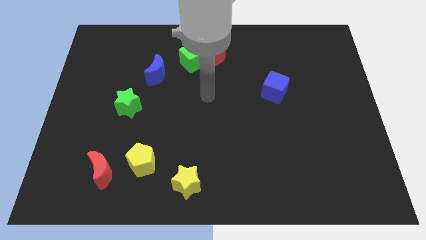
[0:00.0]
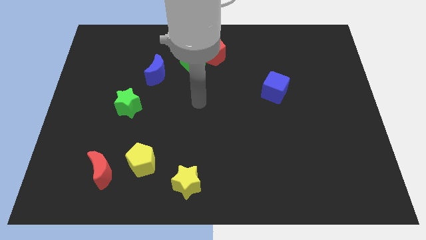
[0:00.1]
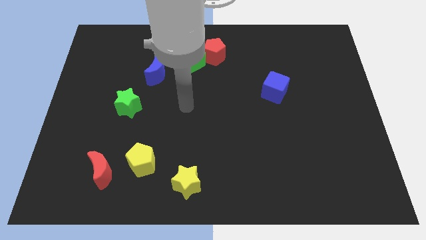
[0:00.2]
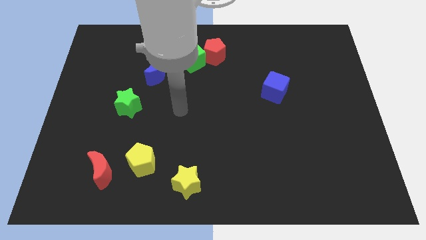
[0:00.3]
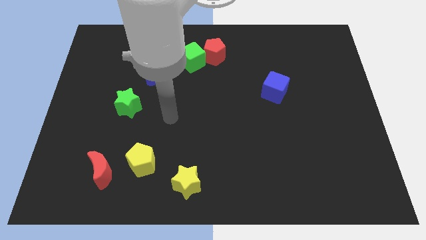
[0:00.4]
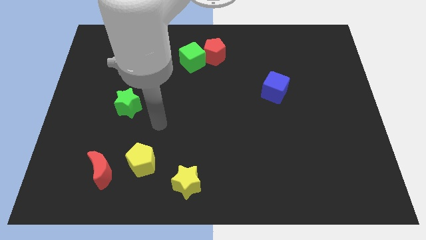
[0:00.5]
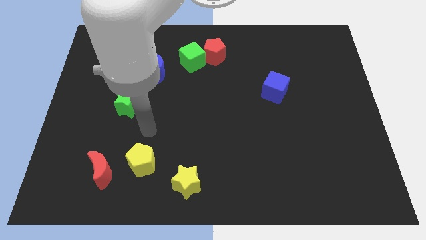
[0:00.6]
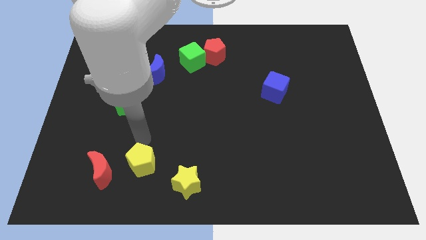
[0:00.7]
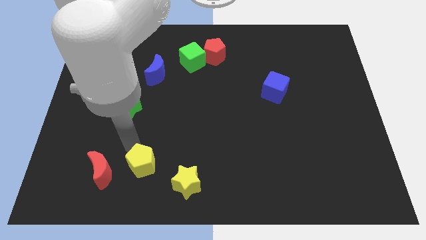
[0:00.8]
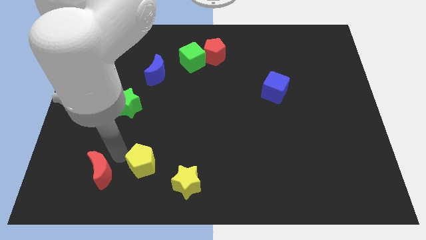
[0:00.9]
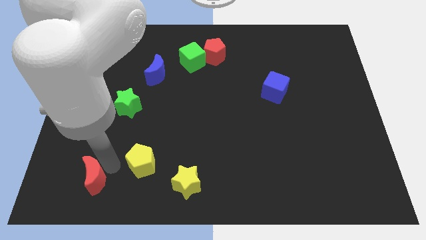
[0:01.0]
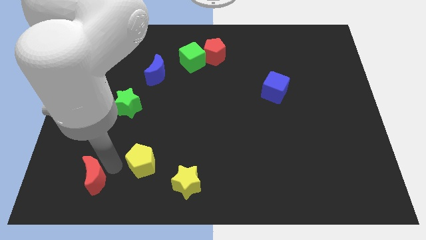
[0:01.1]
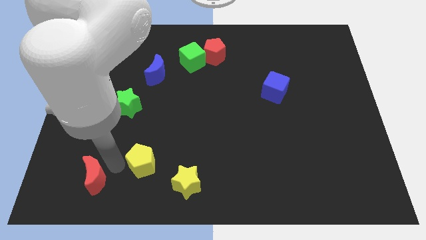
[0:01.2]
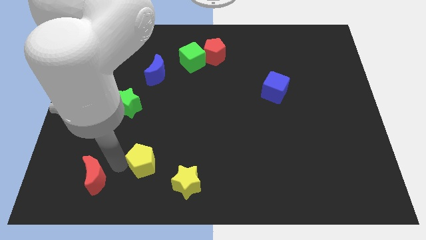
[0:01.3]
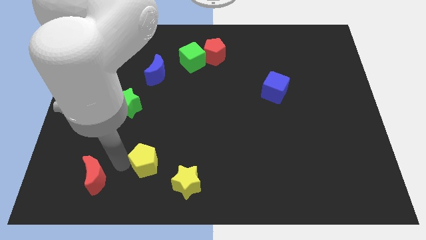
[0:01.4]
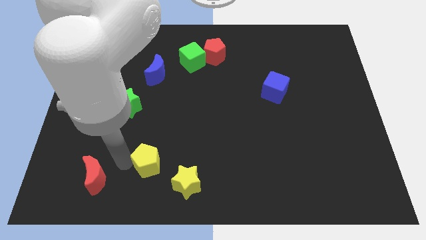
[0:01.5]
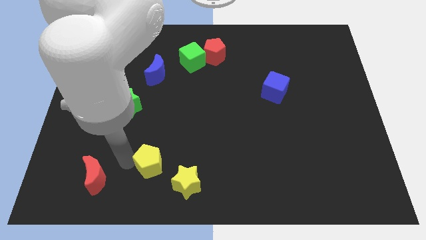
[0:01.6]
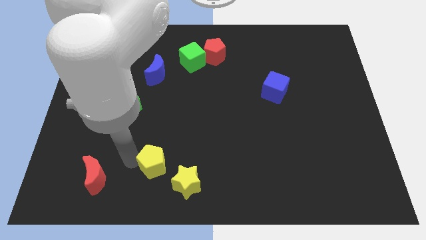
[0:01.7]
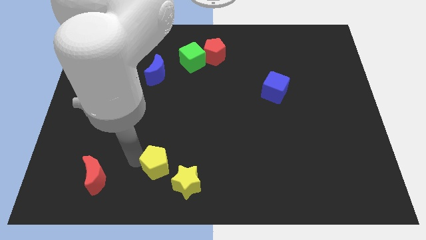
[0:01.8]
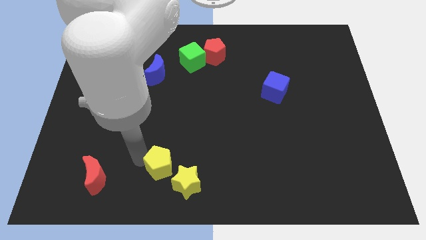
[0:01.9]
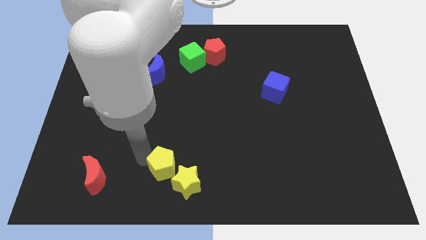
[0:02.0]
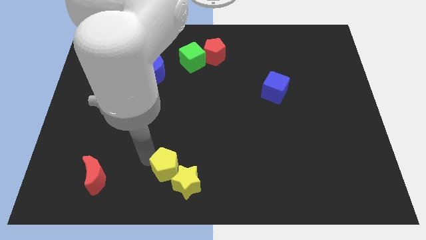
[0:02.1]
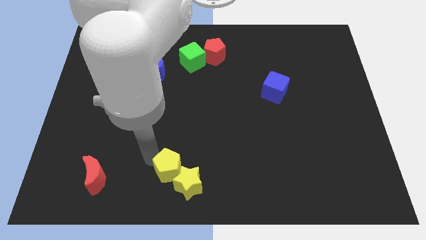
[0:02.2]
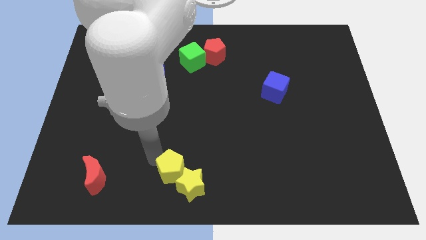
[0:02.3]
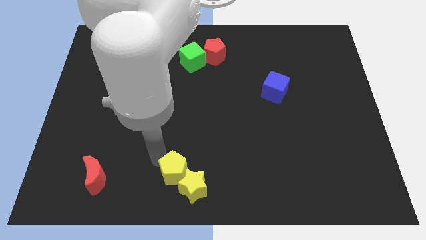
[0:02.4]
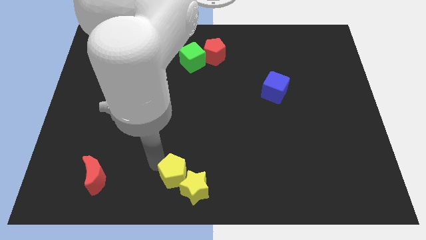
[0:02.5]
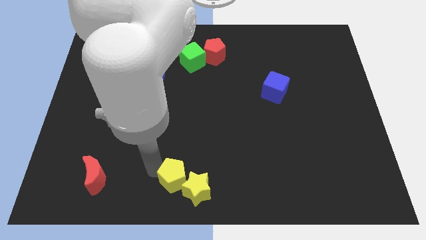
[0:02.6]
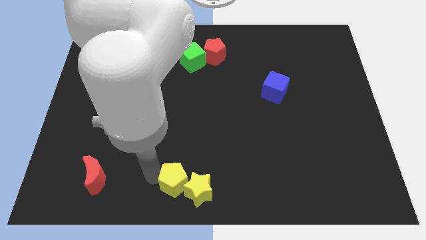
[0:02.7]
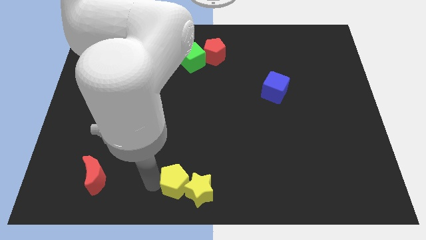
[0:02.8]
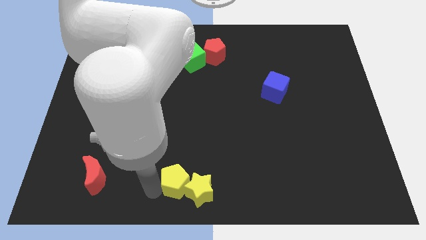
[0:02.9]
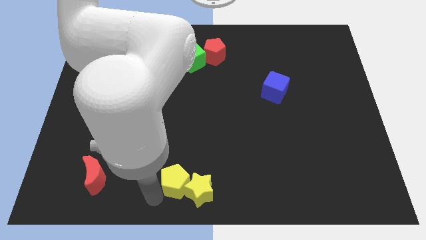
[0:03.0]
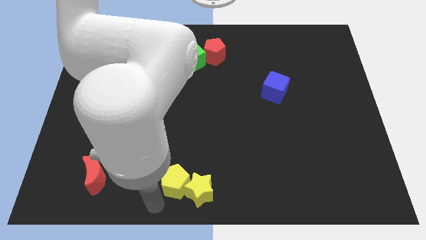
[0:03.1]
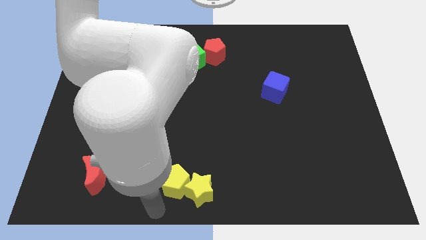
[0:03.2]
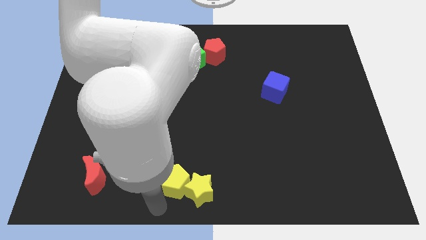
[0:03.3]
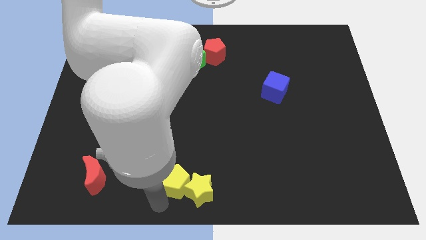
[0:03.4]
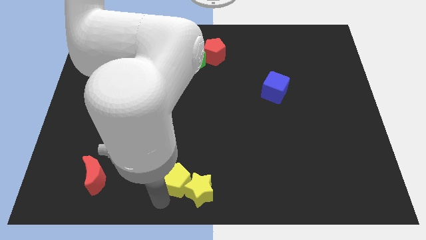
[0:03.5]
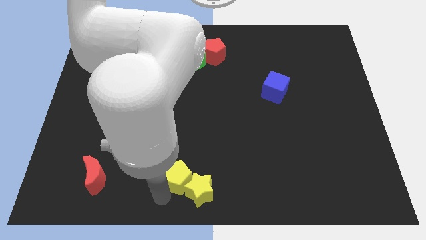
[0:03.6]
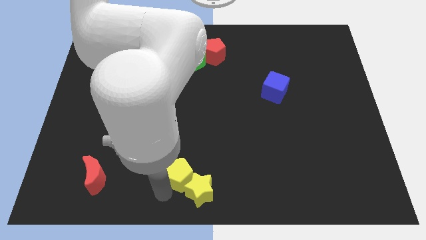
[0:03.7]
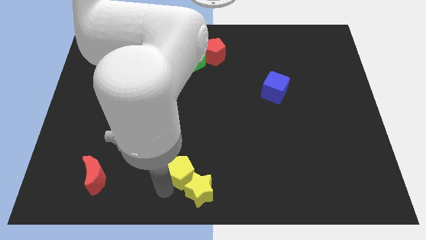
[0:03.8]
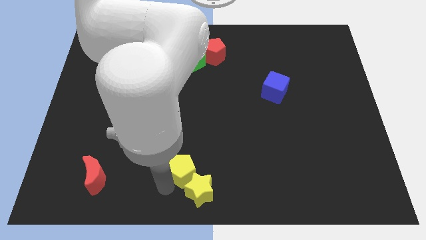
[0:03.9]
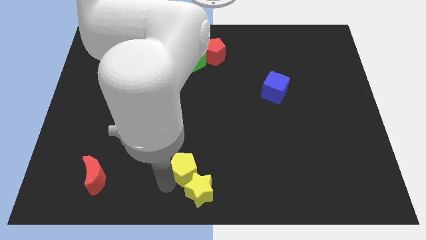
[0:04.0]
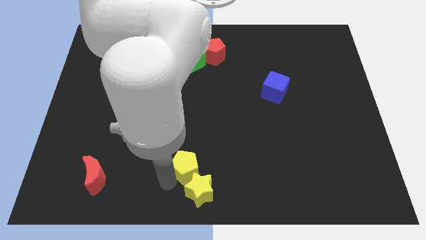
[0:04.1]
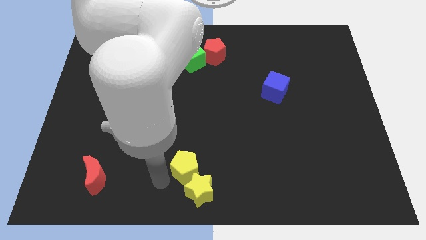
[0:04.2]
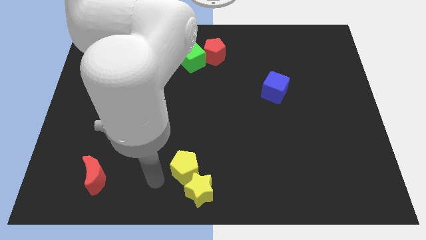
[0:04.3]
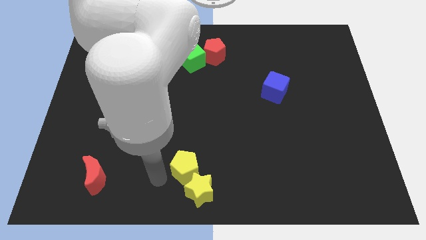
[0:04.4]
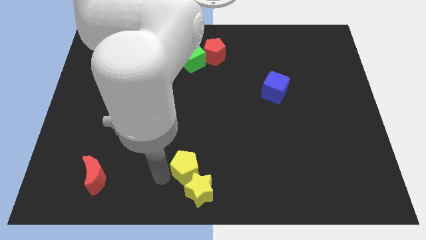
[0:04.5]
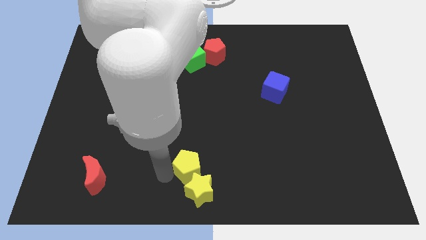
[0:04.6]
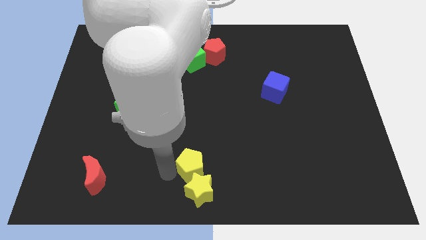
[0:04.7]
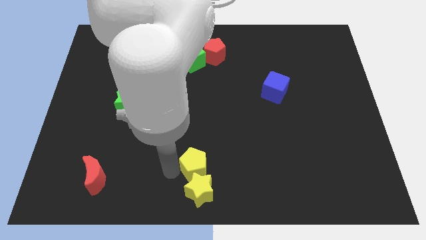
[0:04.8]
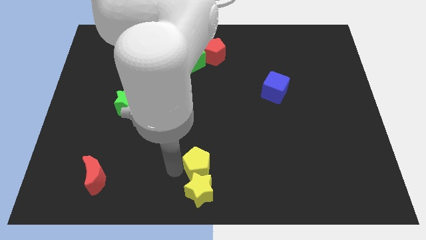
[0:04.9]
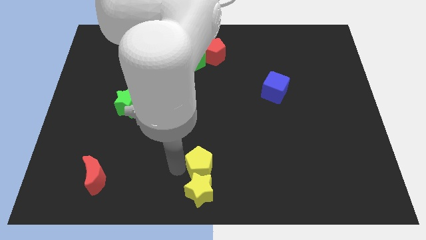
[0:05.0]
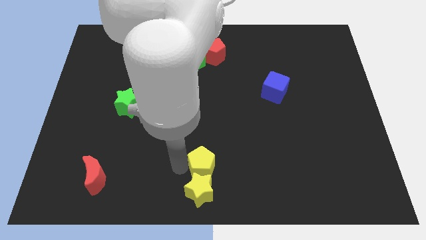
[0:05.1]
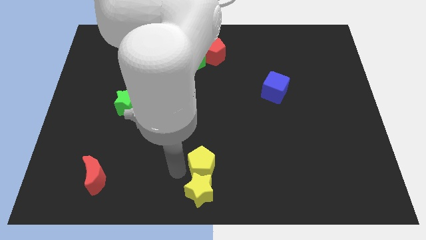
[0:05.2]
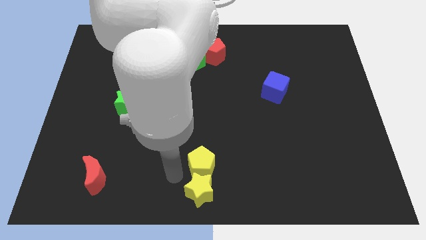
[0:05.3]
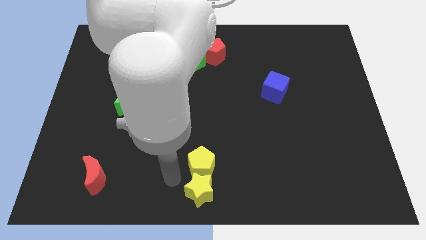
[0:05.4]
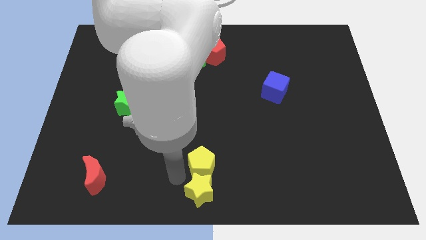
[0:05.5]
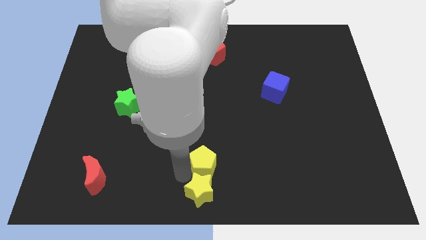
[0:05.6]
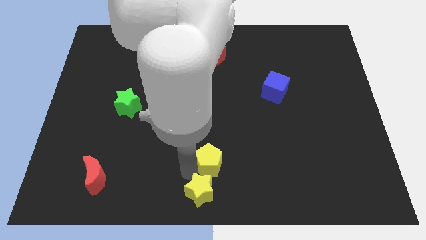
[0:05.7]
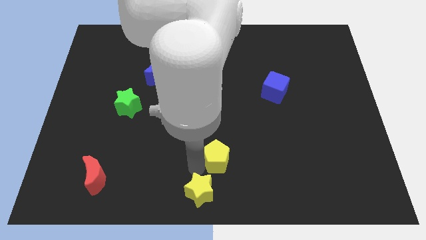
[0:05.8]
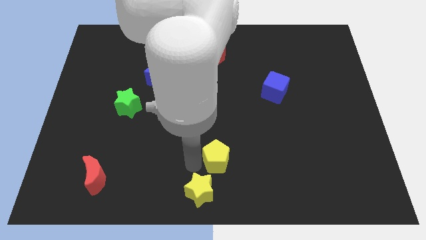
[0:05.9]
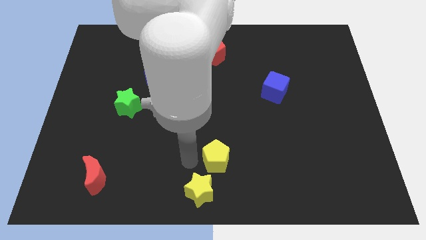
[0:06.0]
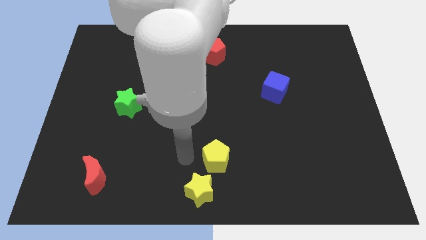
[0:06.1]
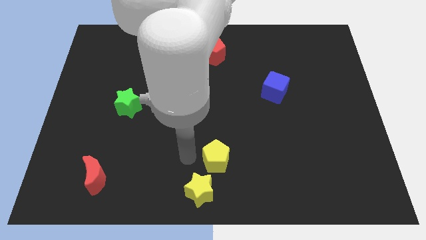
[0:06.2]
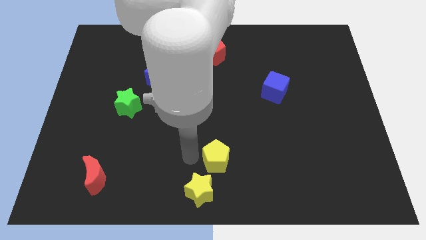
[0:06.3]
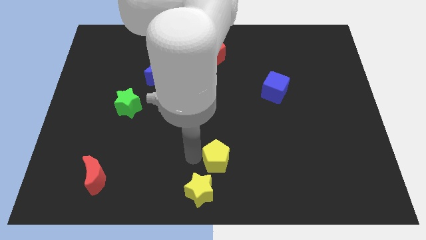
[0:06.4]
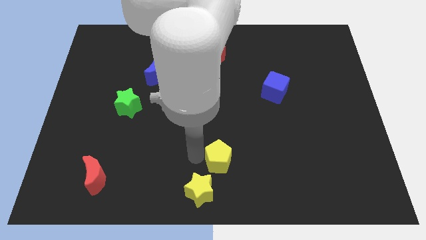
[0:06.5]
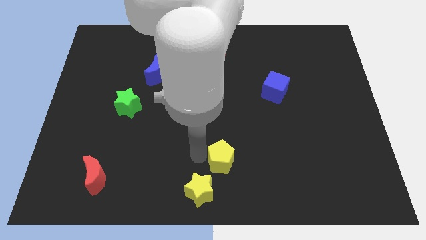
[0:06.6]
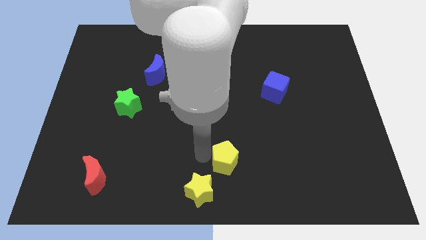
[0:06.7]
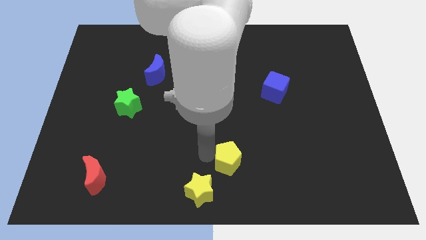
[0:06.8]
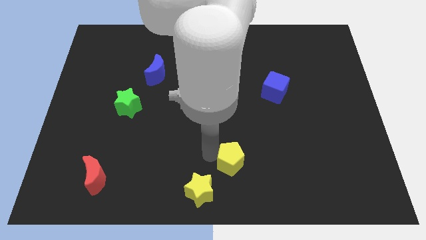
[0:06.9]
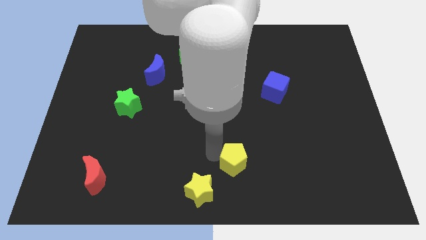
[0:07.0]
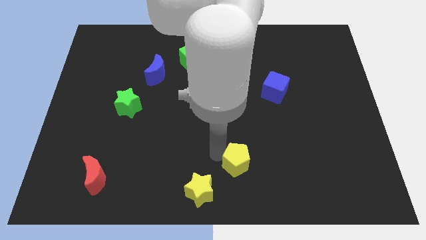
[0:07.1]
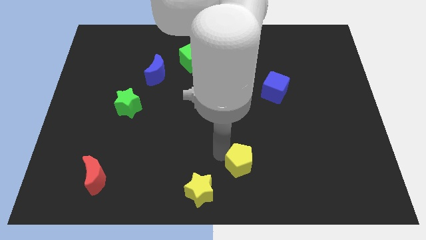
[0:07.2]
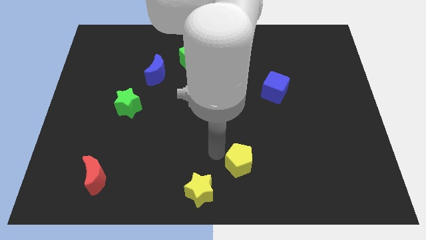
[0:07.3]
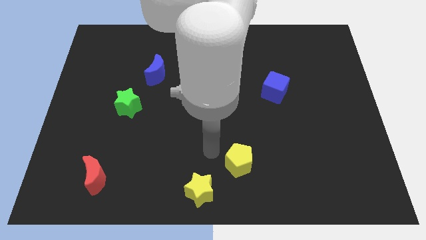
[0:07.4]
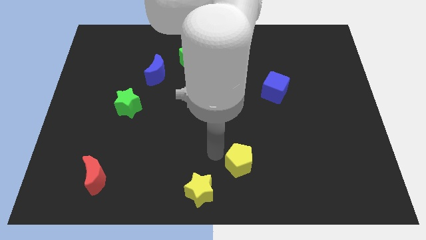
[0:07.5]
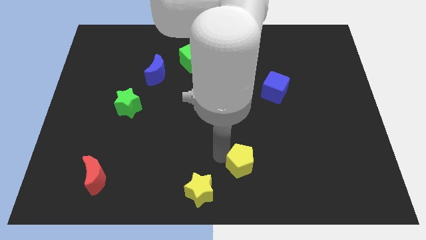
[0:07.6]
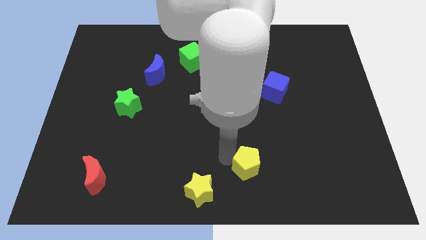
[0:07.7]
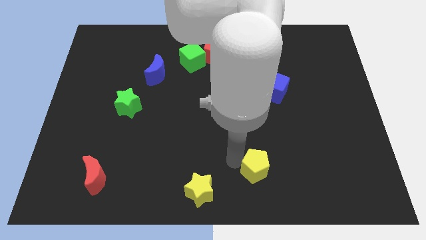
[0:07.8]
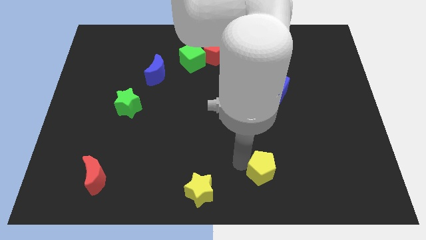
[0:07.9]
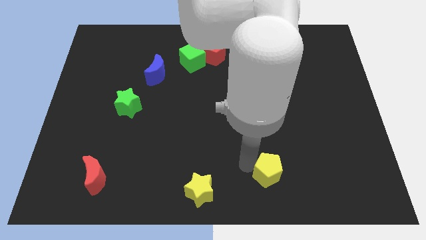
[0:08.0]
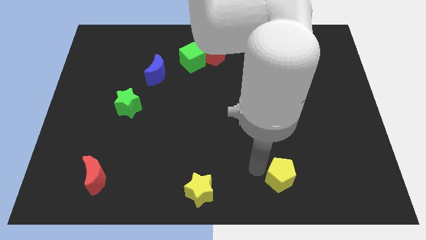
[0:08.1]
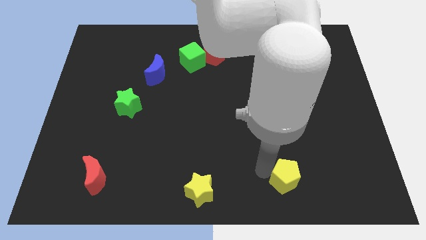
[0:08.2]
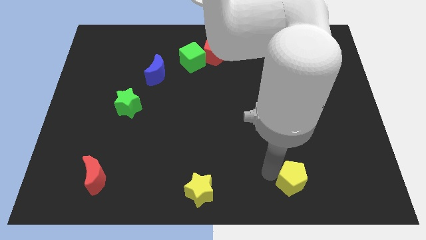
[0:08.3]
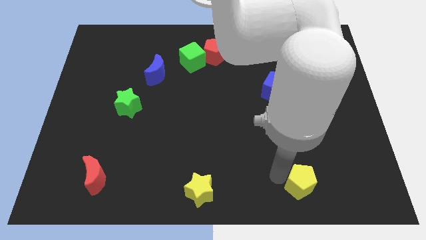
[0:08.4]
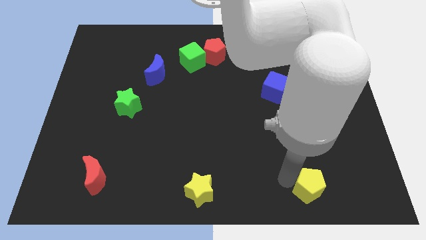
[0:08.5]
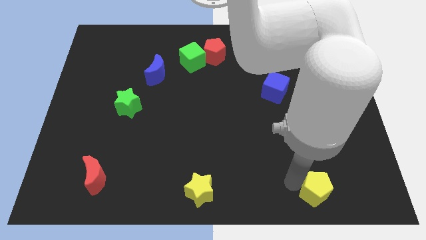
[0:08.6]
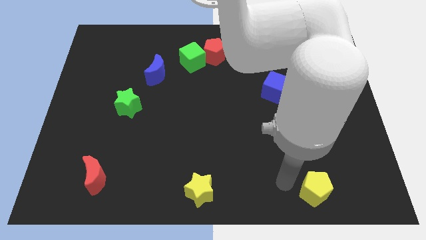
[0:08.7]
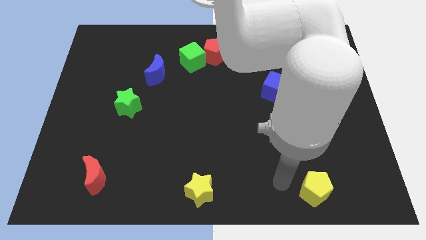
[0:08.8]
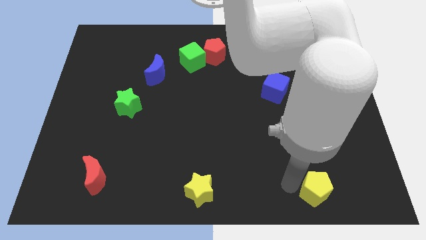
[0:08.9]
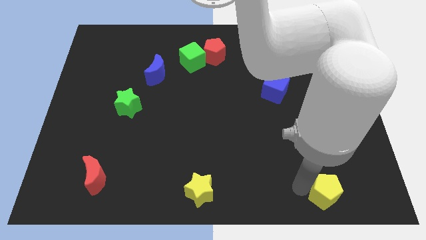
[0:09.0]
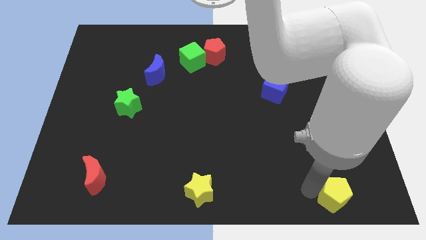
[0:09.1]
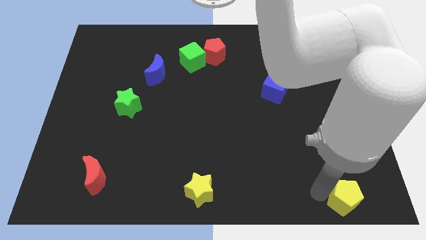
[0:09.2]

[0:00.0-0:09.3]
put the yellow pentagon to the bottom right
